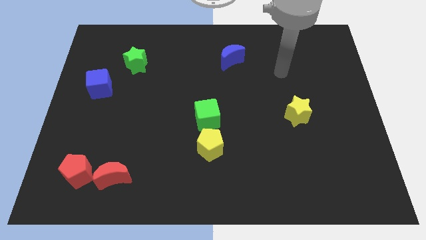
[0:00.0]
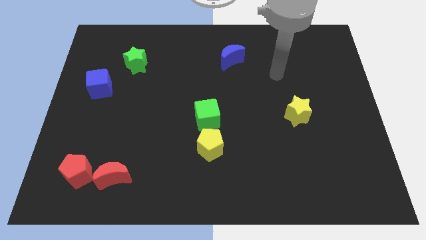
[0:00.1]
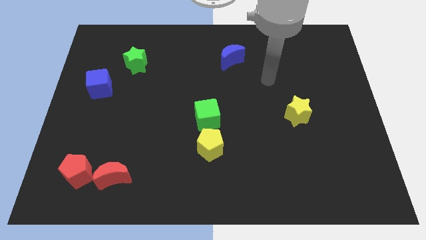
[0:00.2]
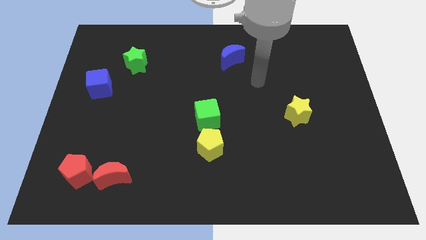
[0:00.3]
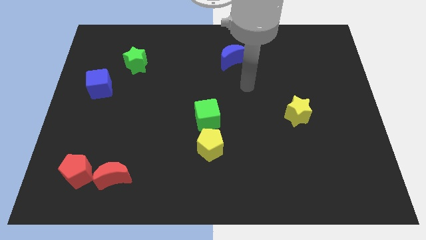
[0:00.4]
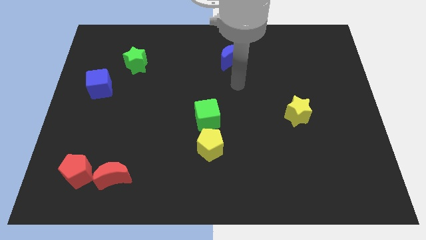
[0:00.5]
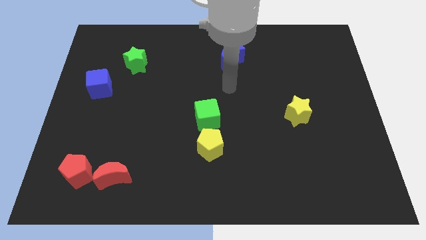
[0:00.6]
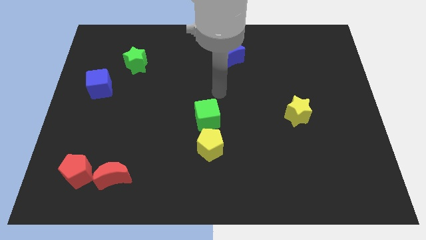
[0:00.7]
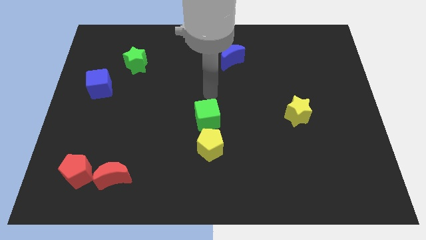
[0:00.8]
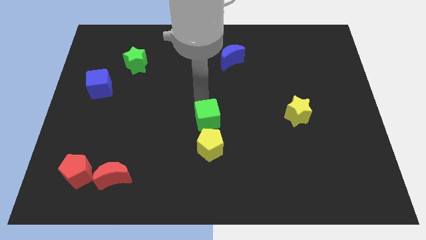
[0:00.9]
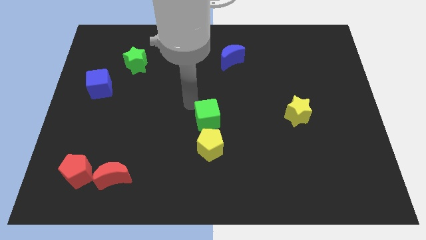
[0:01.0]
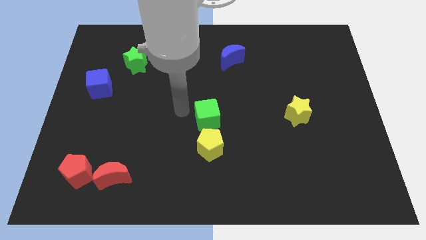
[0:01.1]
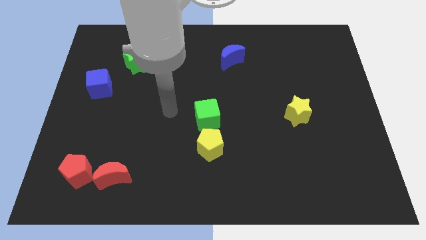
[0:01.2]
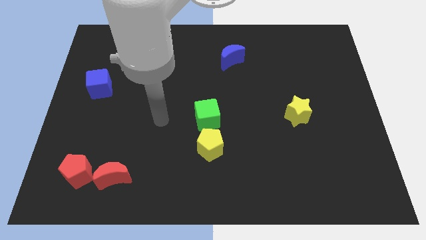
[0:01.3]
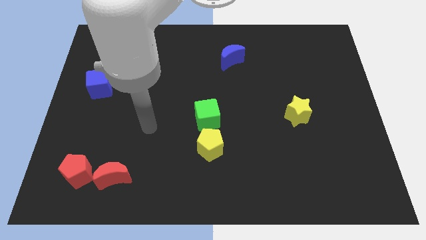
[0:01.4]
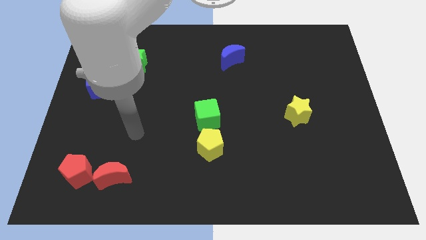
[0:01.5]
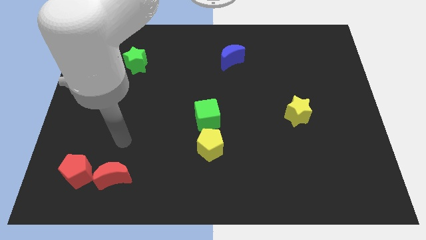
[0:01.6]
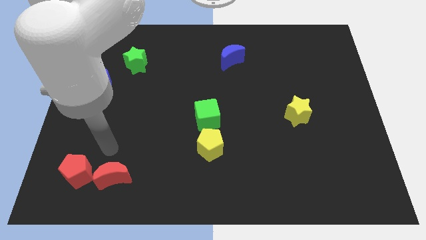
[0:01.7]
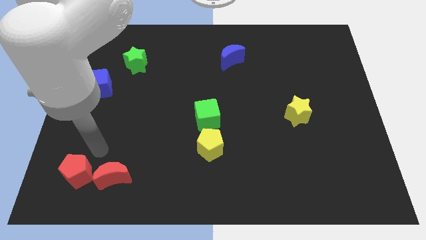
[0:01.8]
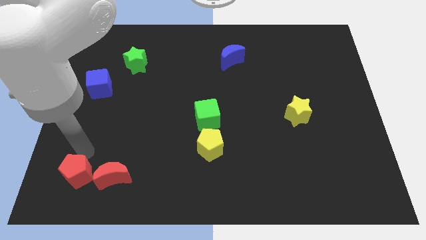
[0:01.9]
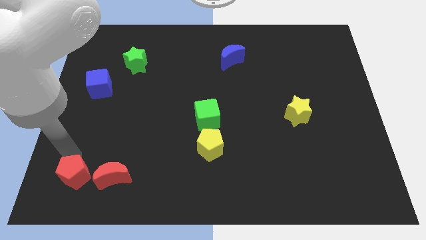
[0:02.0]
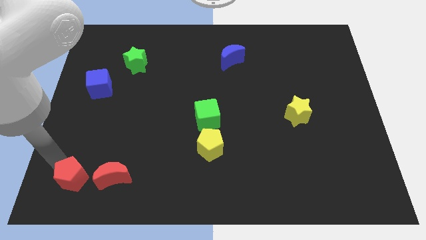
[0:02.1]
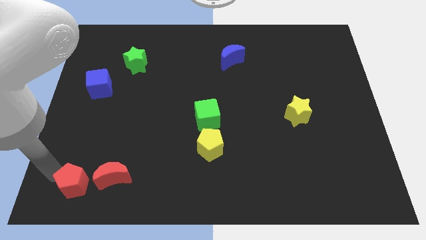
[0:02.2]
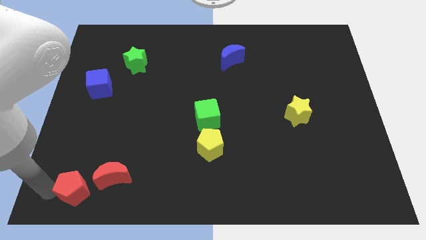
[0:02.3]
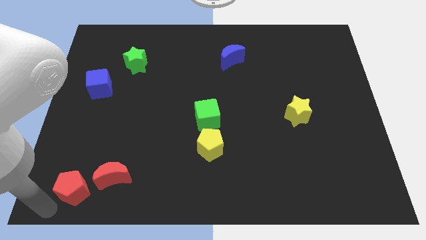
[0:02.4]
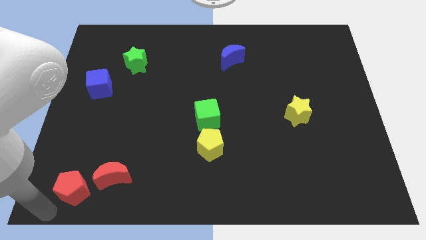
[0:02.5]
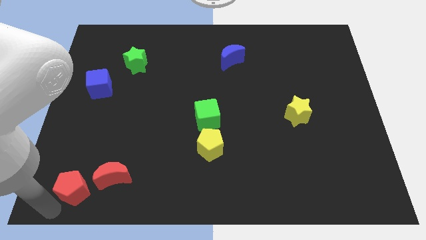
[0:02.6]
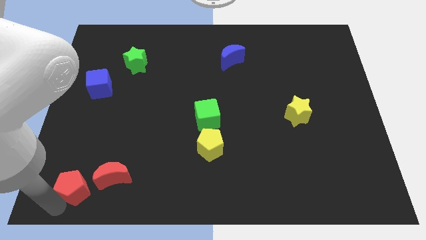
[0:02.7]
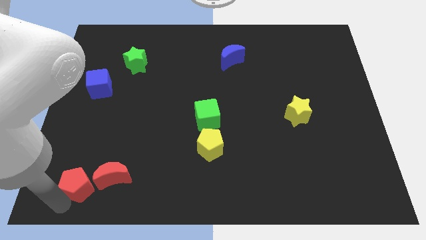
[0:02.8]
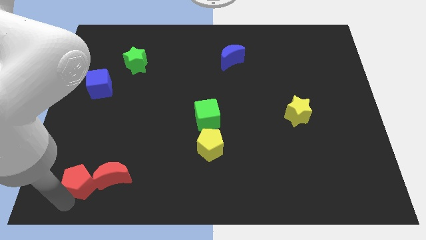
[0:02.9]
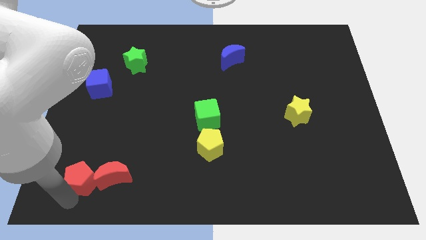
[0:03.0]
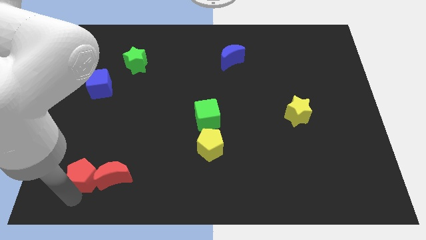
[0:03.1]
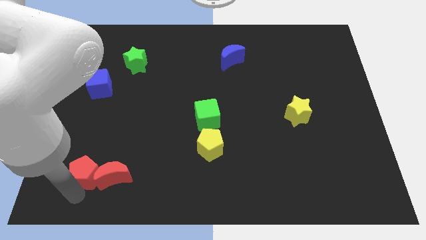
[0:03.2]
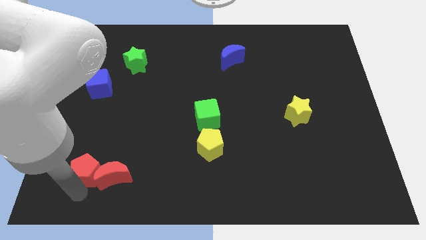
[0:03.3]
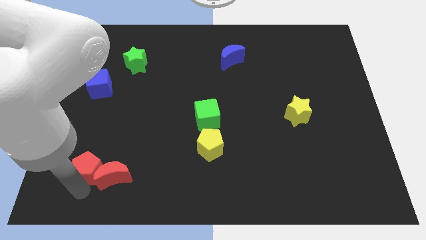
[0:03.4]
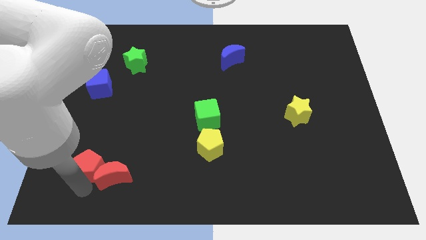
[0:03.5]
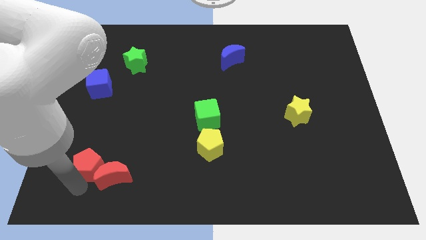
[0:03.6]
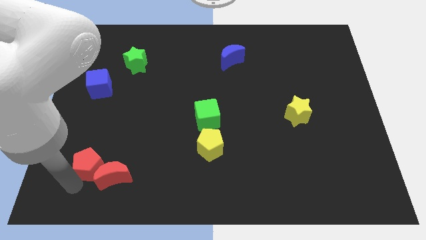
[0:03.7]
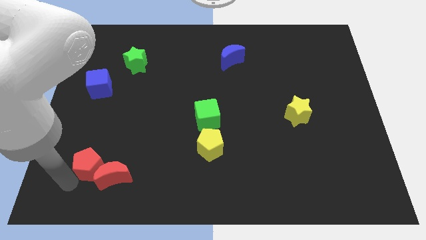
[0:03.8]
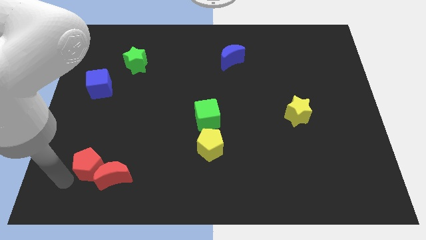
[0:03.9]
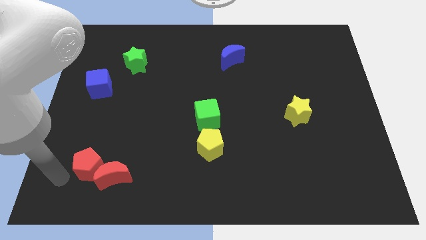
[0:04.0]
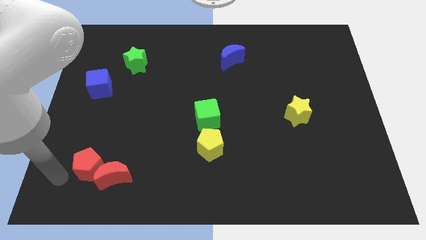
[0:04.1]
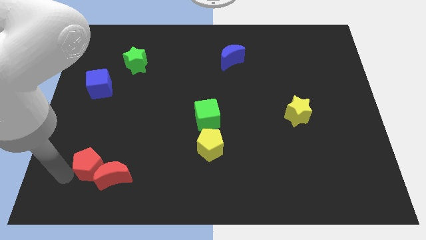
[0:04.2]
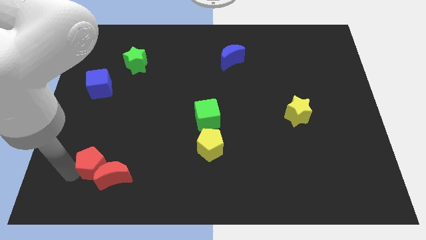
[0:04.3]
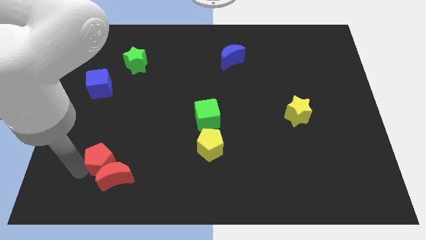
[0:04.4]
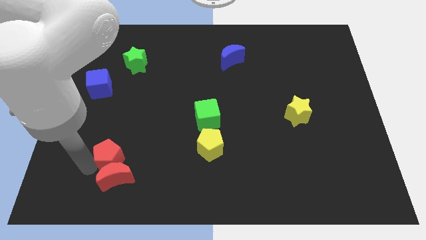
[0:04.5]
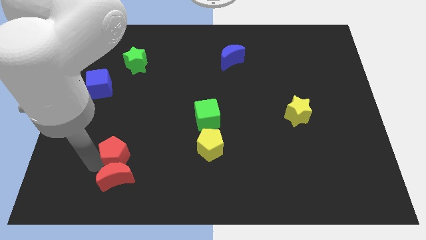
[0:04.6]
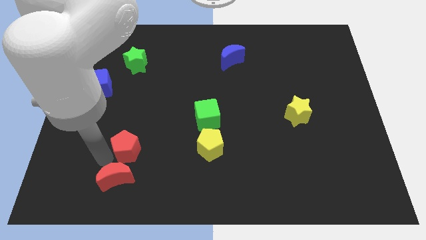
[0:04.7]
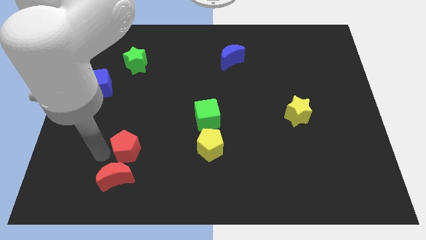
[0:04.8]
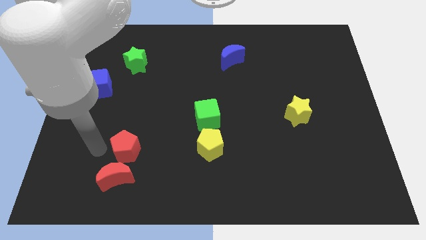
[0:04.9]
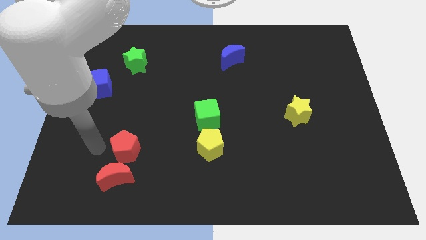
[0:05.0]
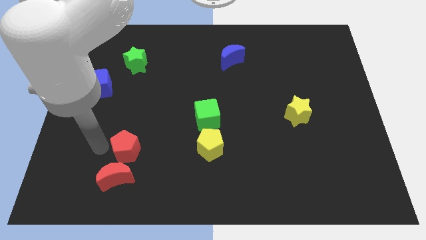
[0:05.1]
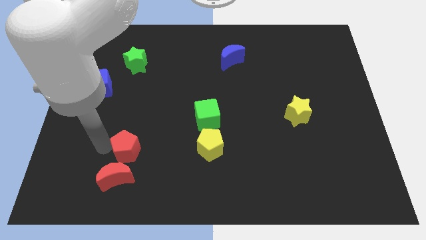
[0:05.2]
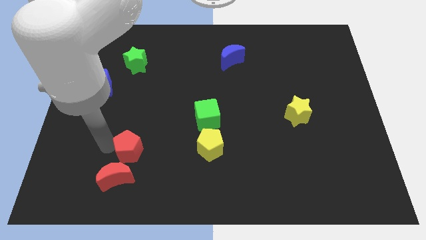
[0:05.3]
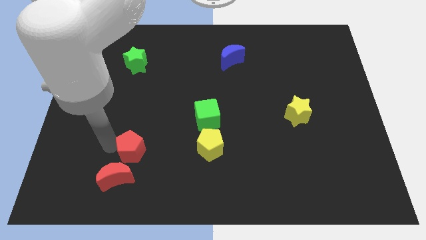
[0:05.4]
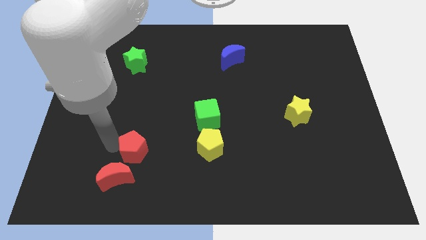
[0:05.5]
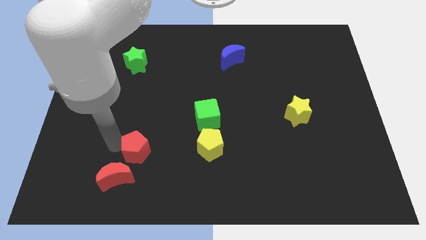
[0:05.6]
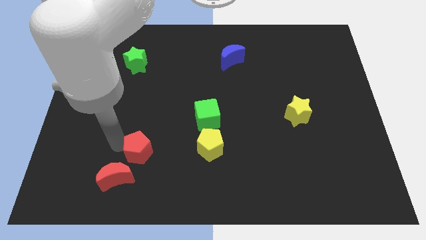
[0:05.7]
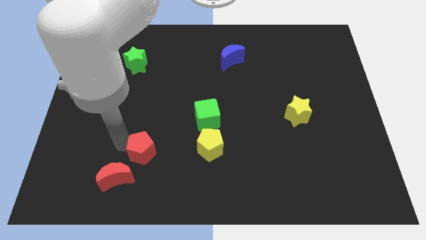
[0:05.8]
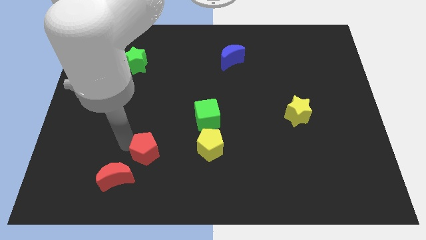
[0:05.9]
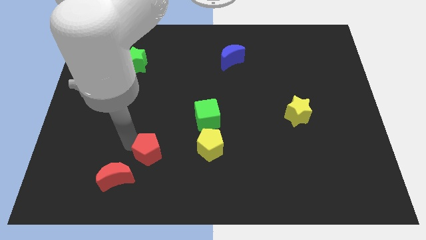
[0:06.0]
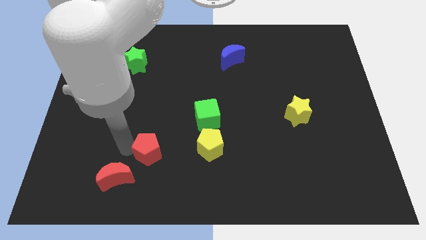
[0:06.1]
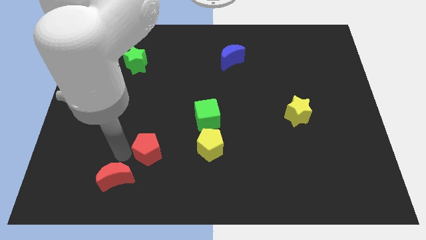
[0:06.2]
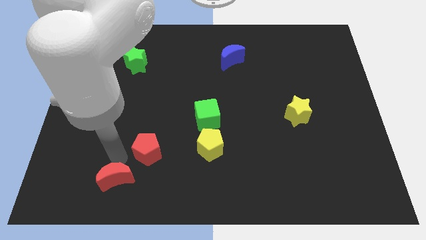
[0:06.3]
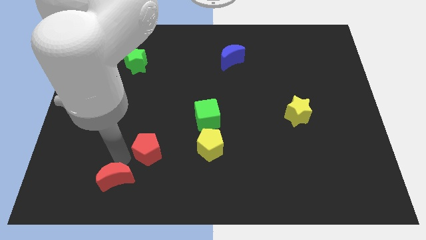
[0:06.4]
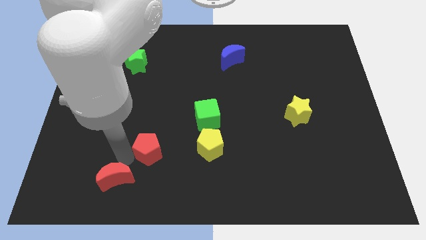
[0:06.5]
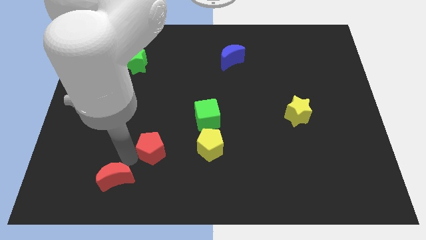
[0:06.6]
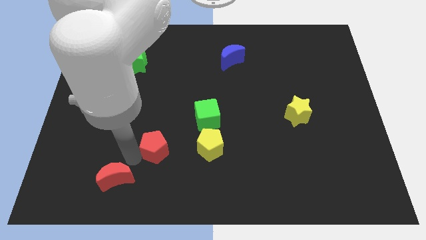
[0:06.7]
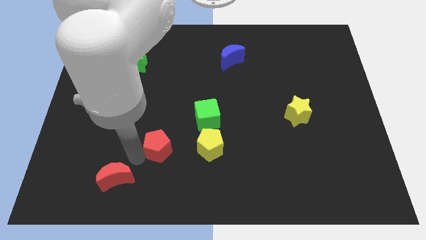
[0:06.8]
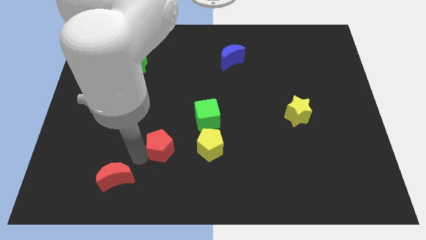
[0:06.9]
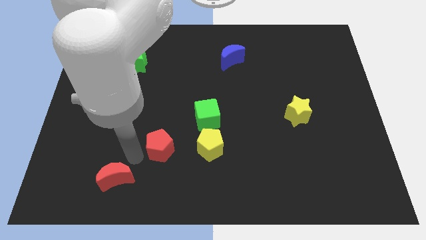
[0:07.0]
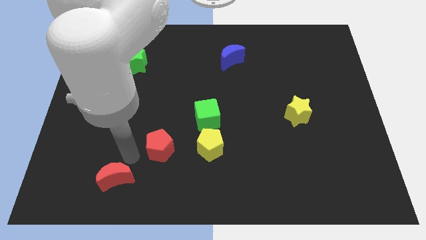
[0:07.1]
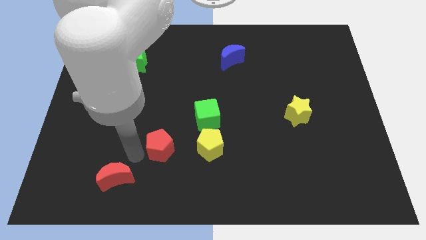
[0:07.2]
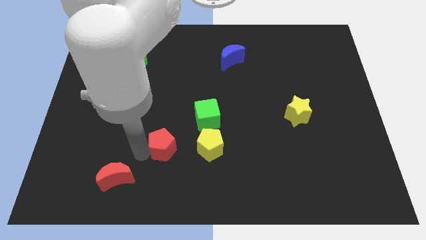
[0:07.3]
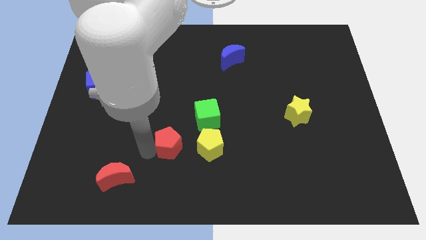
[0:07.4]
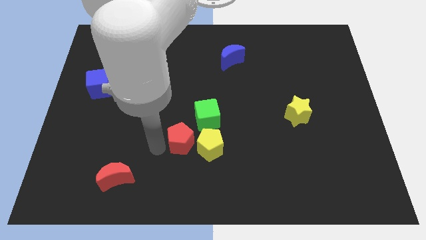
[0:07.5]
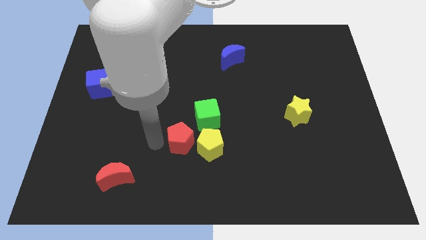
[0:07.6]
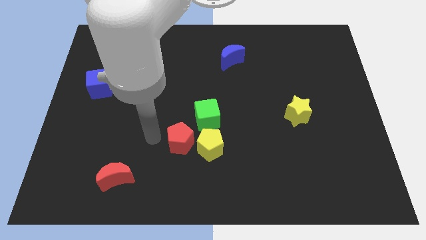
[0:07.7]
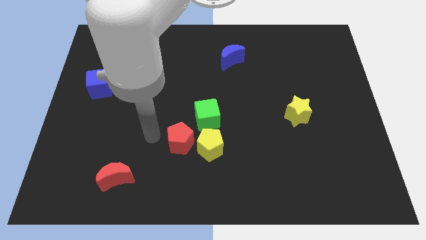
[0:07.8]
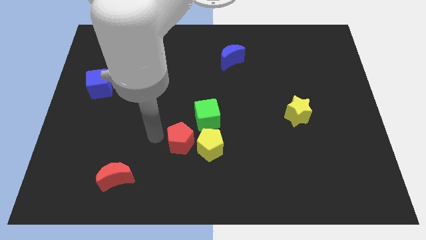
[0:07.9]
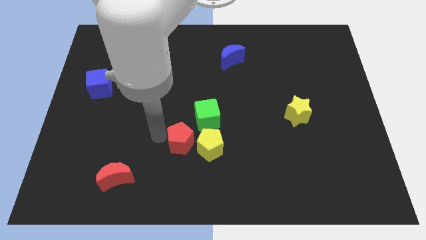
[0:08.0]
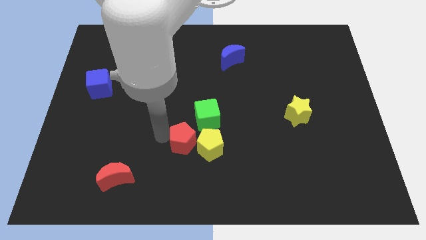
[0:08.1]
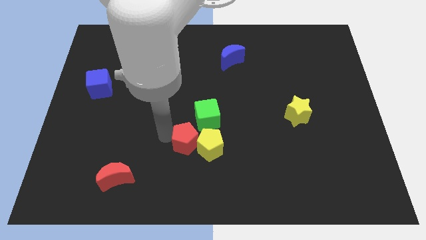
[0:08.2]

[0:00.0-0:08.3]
slide the red pentagon close to the yellow pentagon
